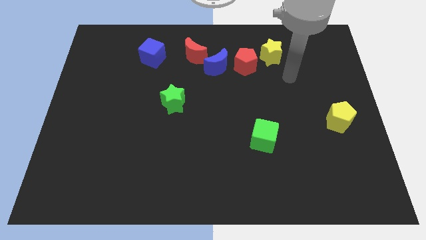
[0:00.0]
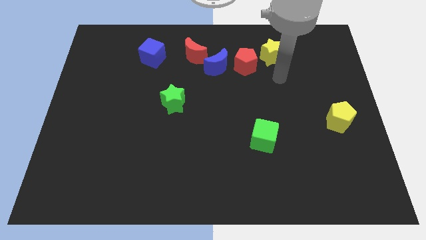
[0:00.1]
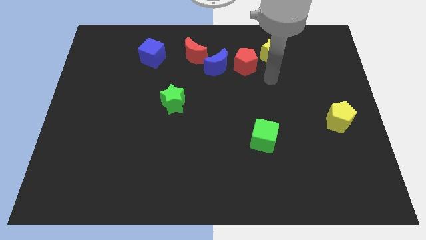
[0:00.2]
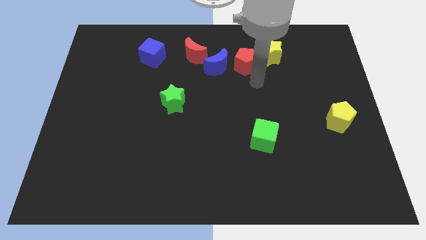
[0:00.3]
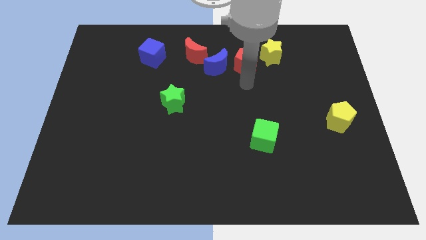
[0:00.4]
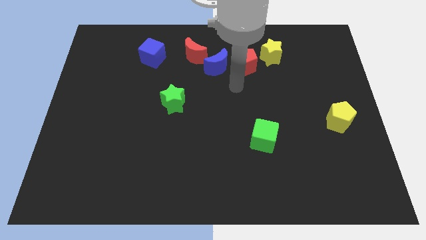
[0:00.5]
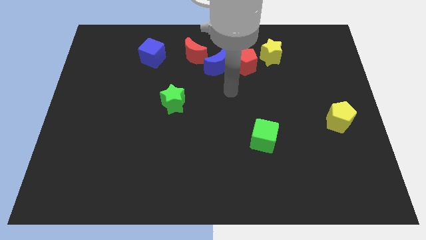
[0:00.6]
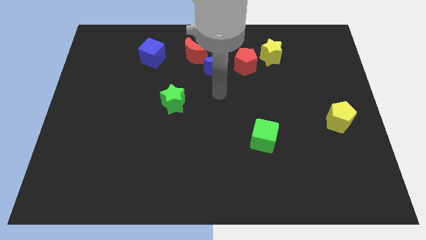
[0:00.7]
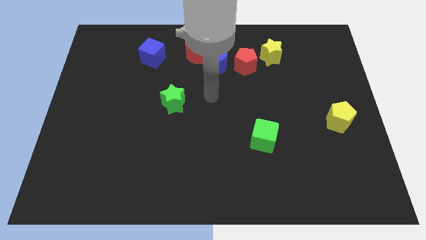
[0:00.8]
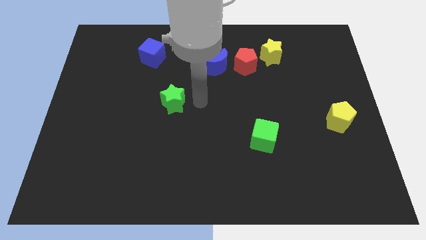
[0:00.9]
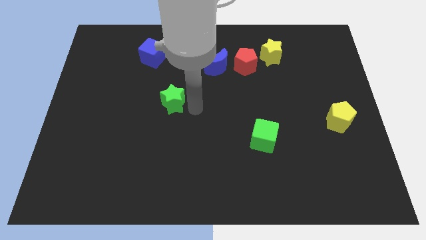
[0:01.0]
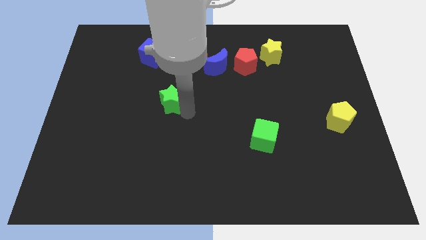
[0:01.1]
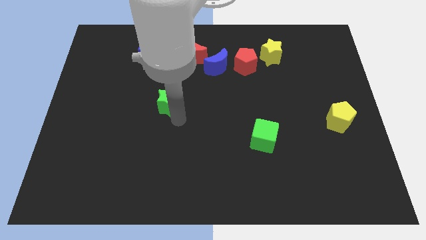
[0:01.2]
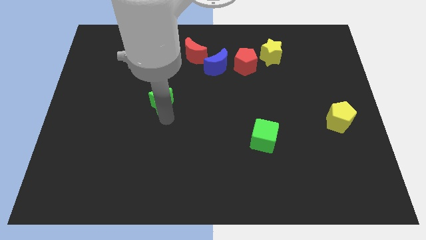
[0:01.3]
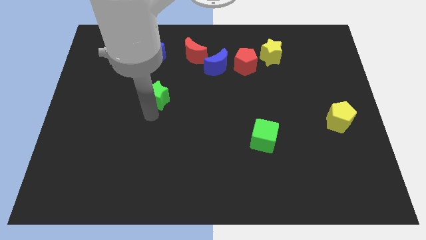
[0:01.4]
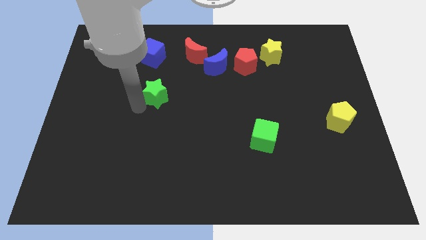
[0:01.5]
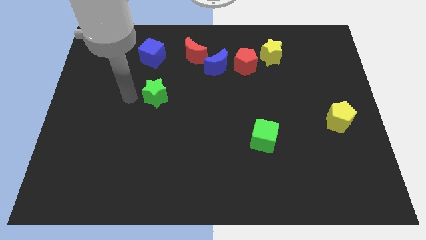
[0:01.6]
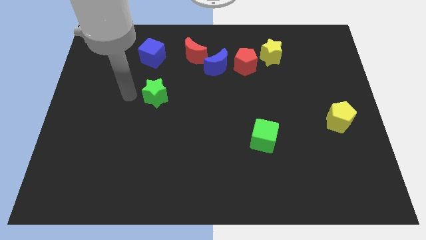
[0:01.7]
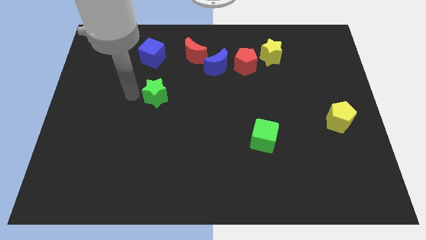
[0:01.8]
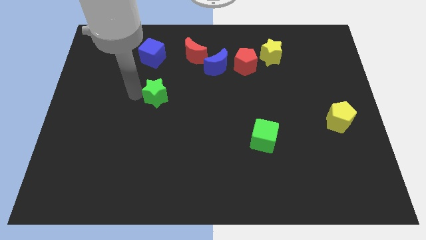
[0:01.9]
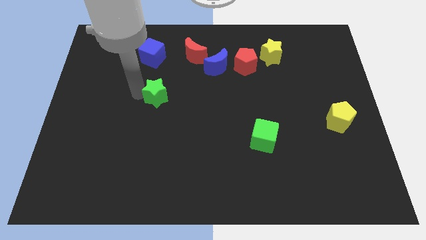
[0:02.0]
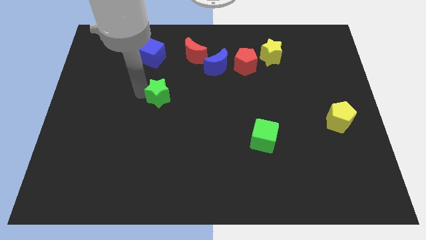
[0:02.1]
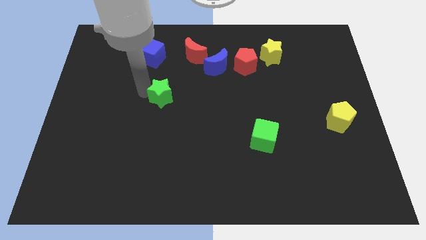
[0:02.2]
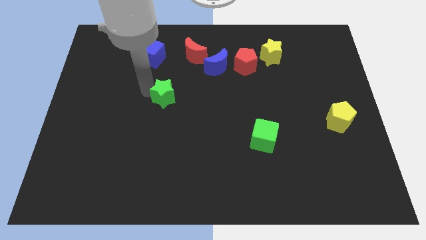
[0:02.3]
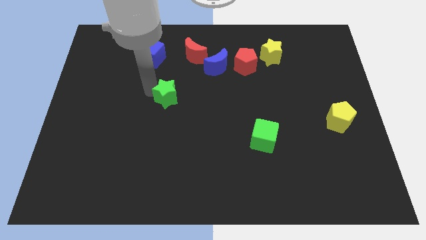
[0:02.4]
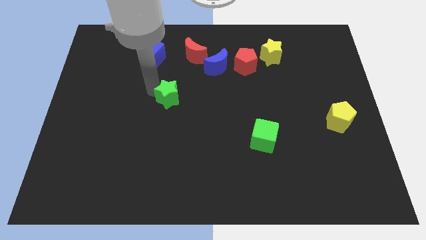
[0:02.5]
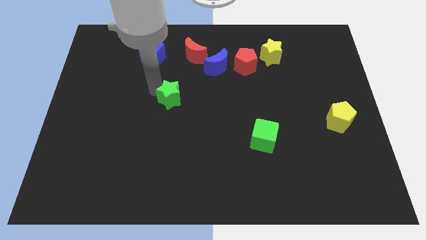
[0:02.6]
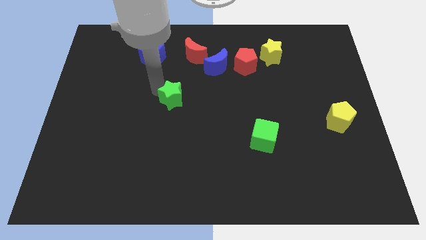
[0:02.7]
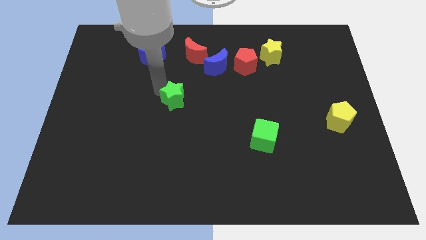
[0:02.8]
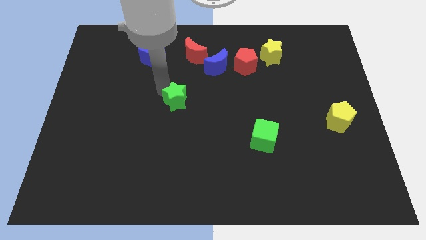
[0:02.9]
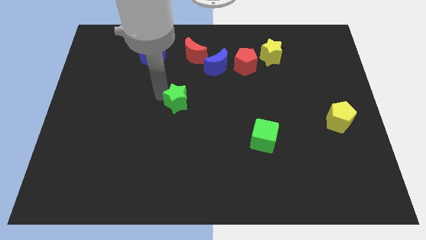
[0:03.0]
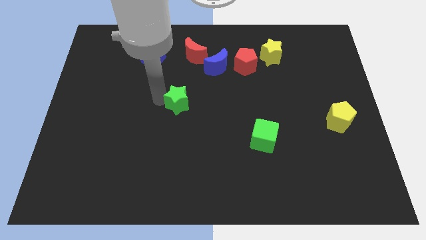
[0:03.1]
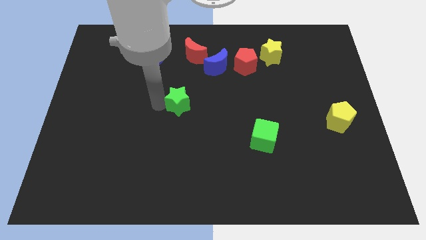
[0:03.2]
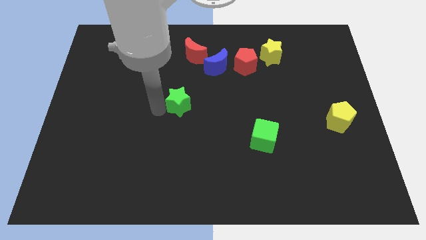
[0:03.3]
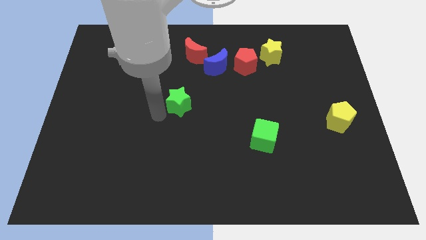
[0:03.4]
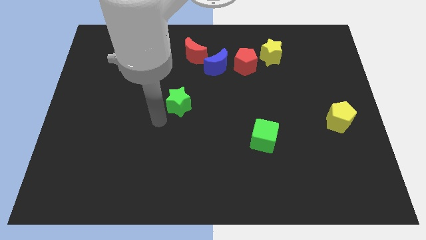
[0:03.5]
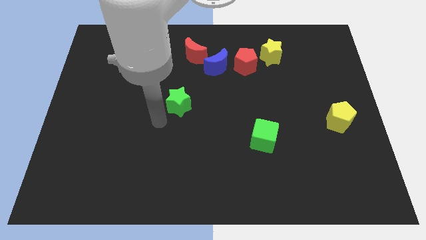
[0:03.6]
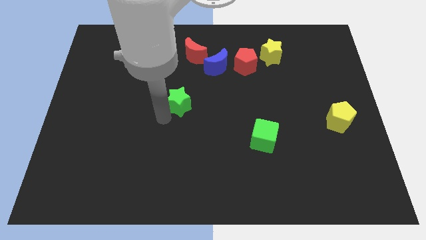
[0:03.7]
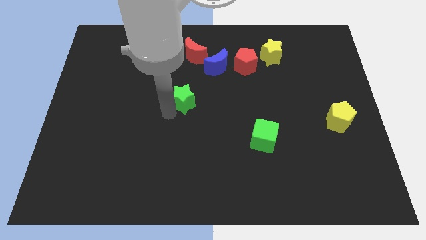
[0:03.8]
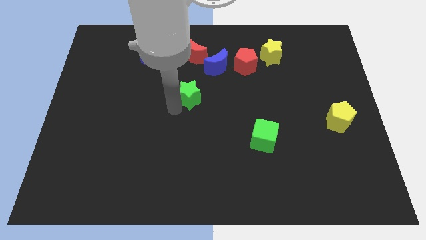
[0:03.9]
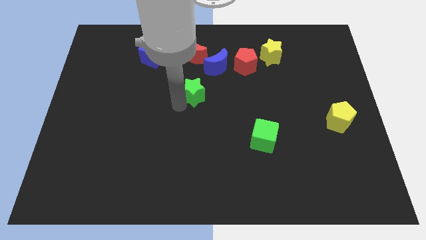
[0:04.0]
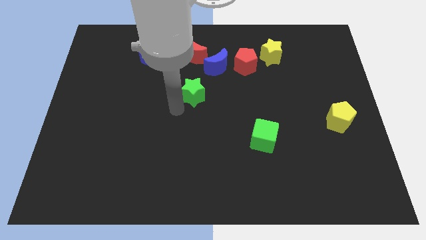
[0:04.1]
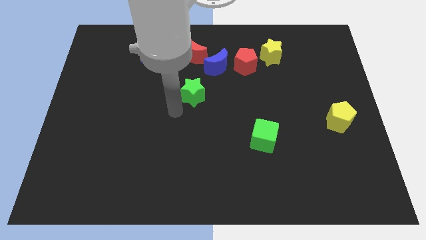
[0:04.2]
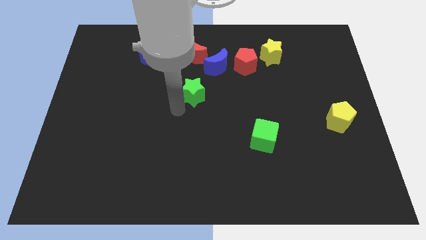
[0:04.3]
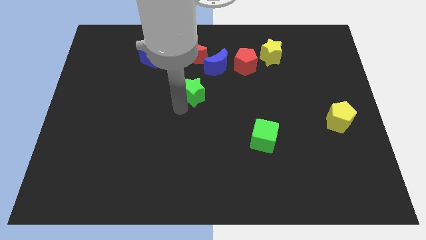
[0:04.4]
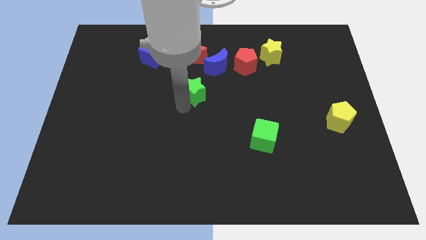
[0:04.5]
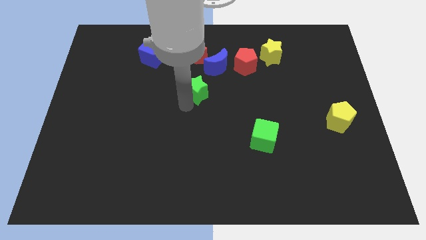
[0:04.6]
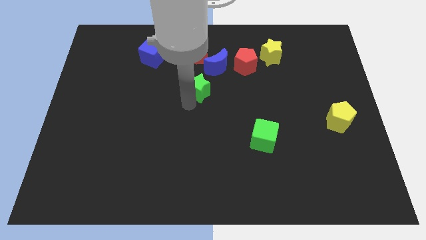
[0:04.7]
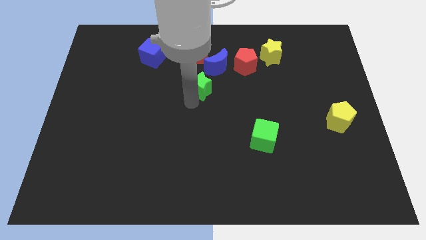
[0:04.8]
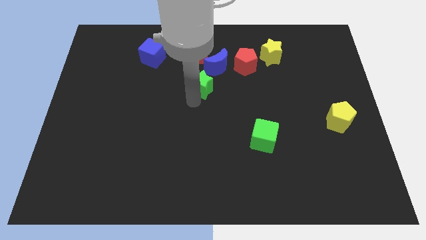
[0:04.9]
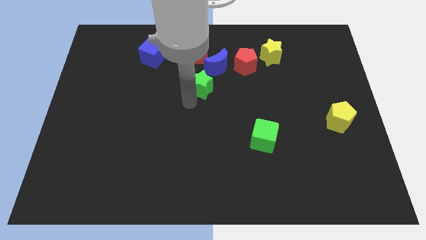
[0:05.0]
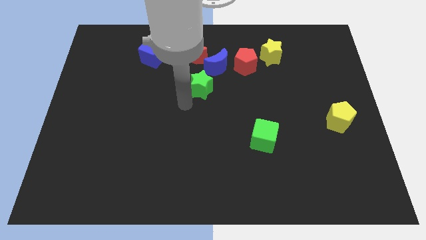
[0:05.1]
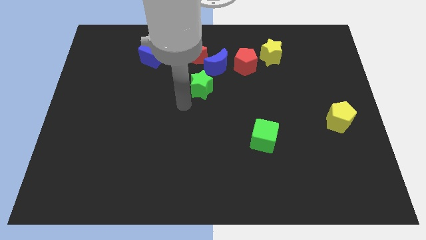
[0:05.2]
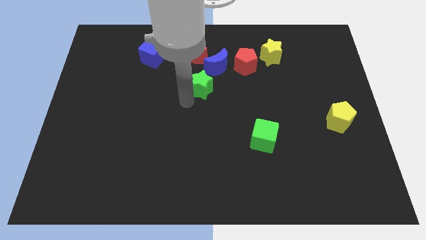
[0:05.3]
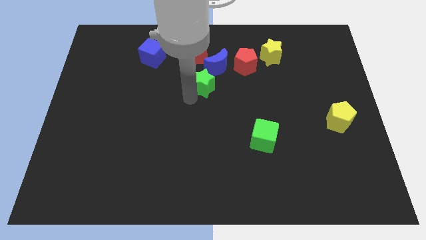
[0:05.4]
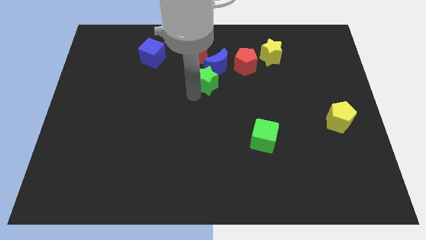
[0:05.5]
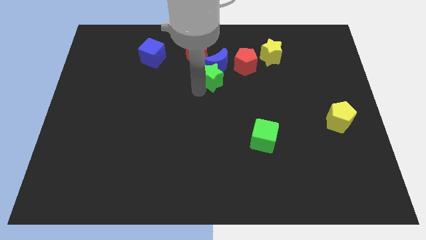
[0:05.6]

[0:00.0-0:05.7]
put the green star next to the blue moon

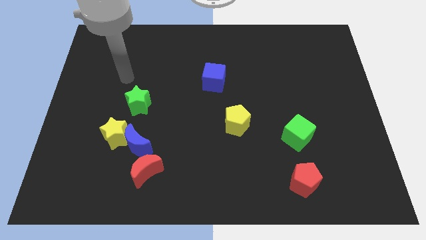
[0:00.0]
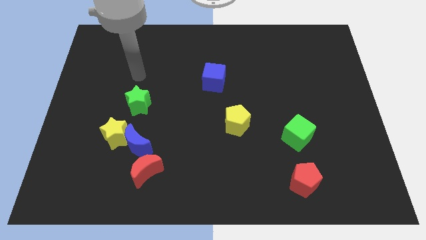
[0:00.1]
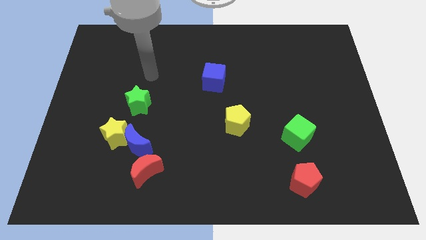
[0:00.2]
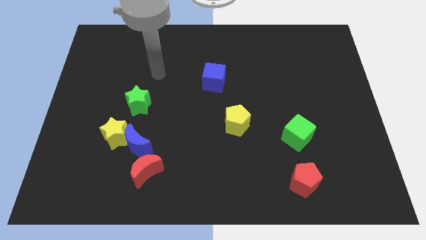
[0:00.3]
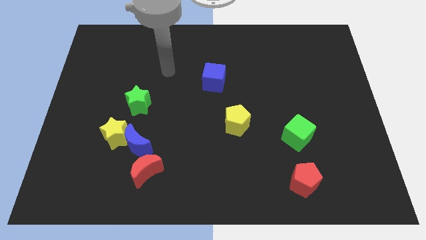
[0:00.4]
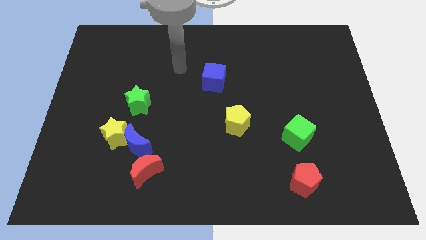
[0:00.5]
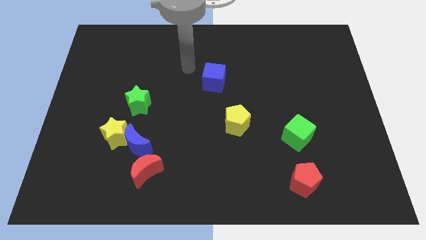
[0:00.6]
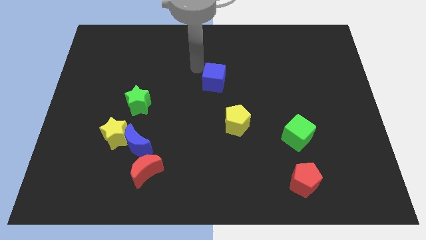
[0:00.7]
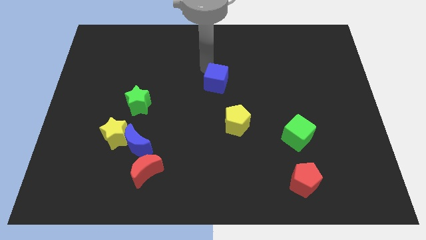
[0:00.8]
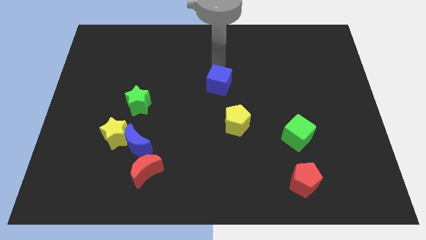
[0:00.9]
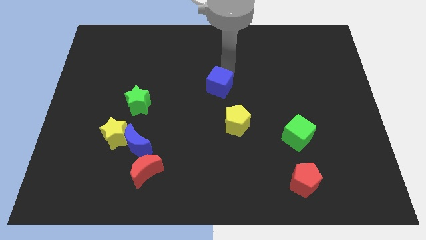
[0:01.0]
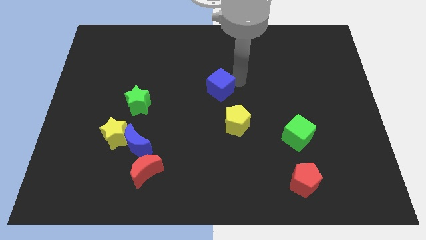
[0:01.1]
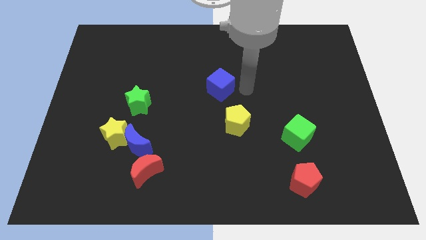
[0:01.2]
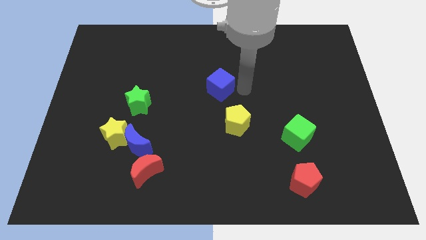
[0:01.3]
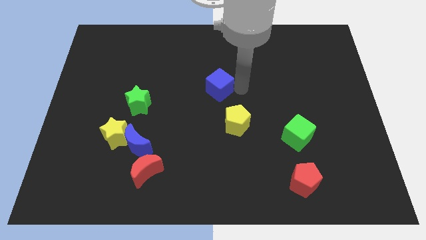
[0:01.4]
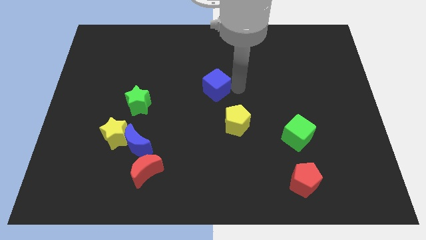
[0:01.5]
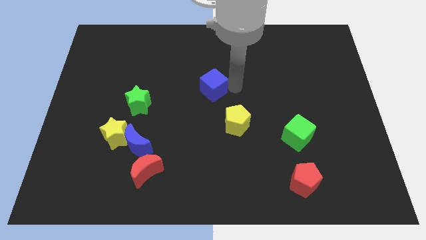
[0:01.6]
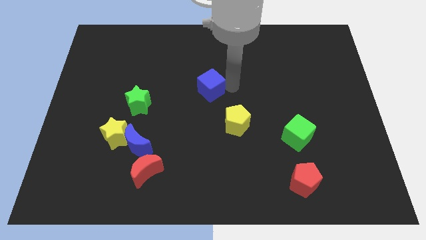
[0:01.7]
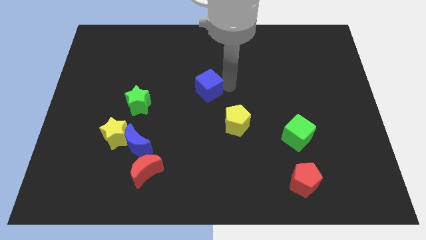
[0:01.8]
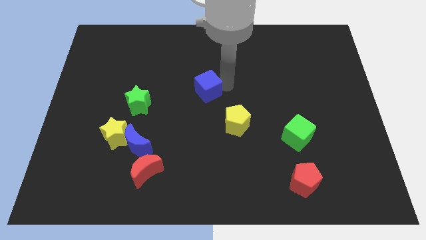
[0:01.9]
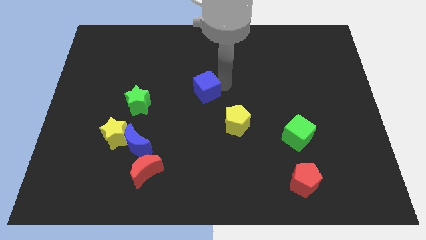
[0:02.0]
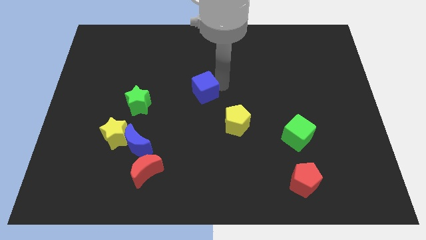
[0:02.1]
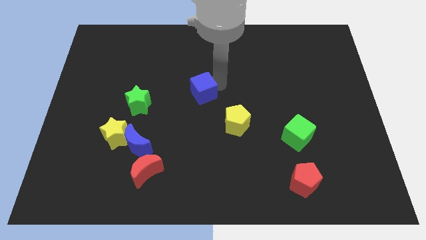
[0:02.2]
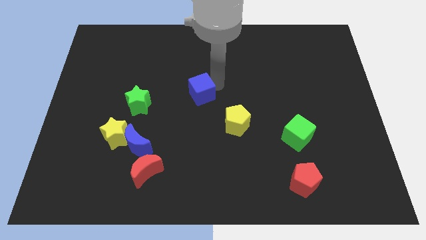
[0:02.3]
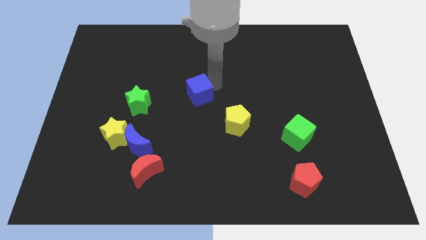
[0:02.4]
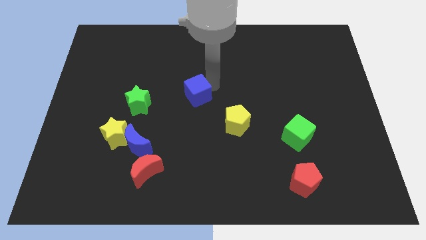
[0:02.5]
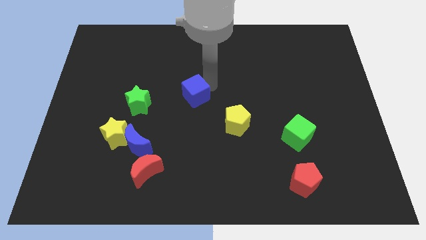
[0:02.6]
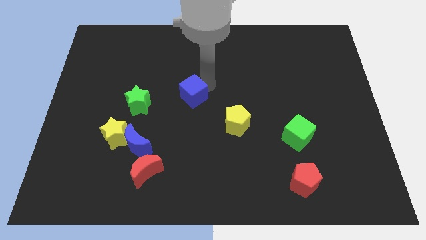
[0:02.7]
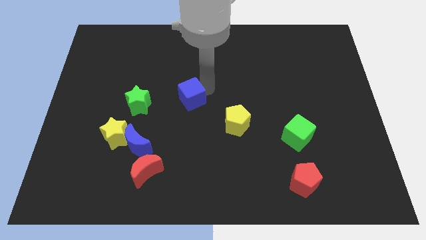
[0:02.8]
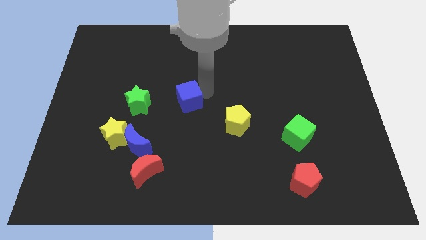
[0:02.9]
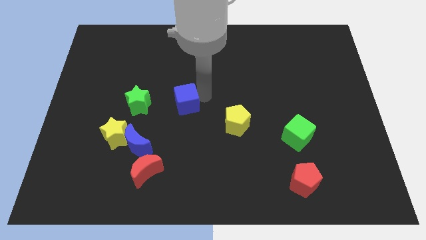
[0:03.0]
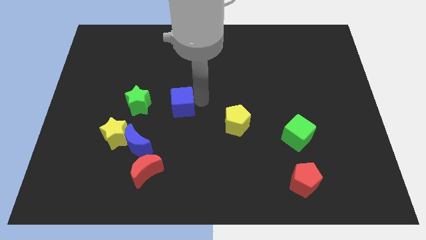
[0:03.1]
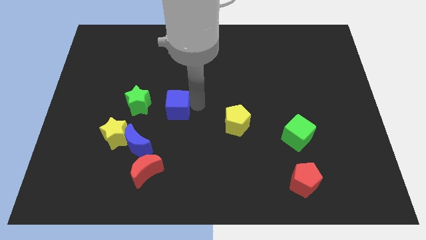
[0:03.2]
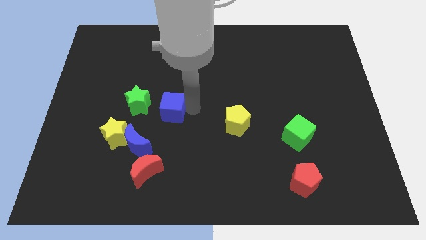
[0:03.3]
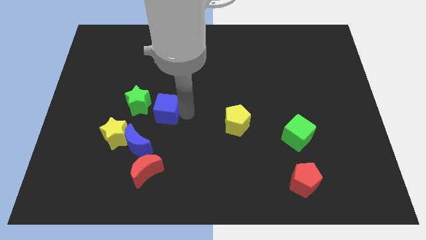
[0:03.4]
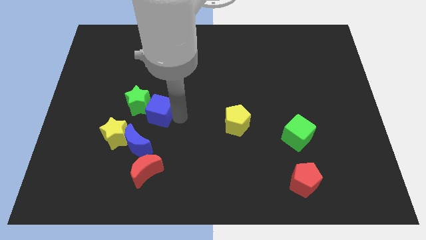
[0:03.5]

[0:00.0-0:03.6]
put the blue cube towards the green star
